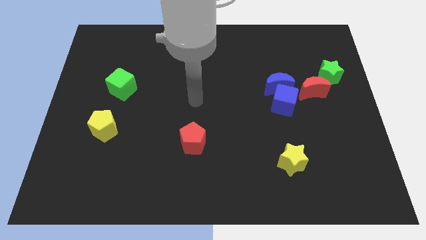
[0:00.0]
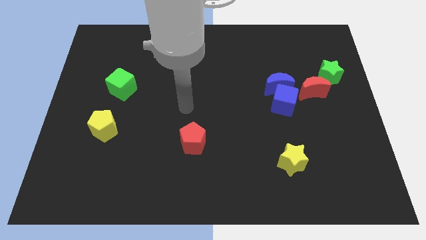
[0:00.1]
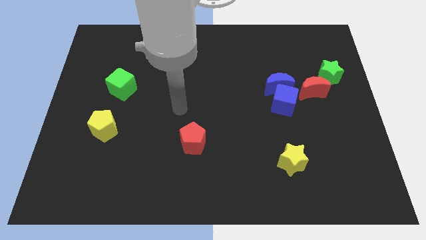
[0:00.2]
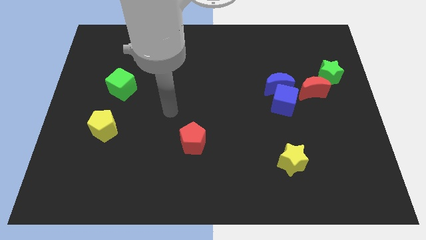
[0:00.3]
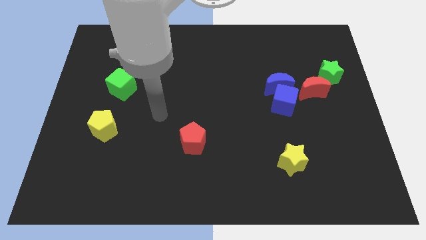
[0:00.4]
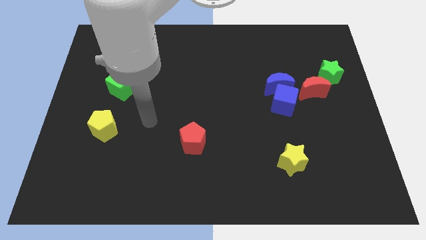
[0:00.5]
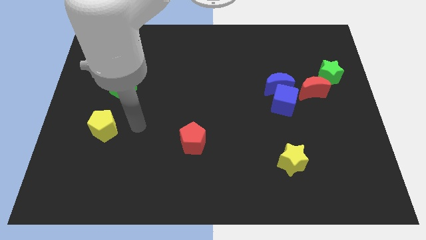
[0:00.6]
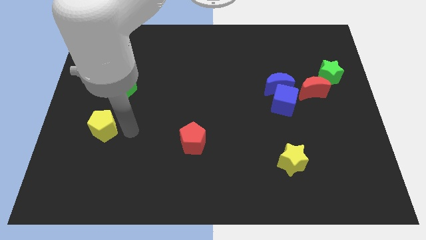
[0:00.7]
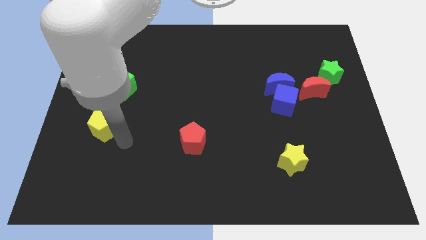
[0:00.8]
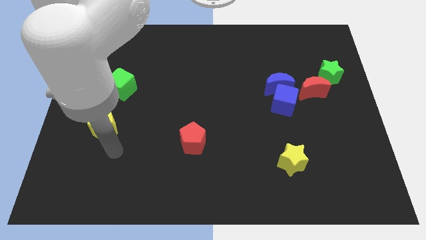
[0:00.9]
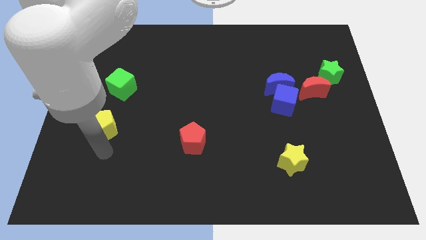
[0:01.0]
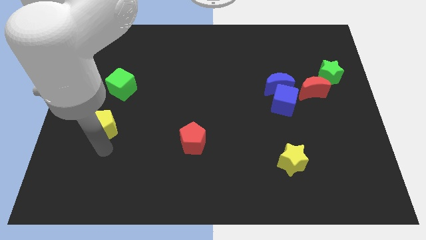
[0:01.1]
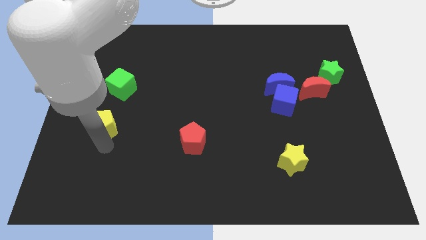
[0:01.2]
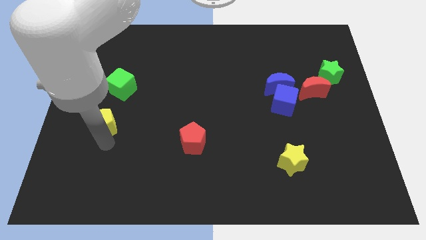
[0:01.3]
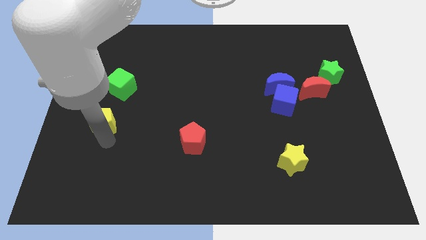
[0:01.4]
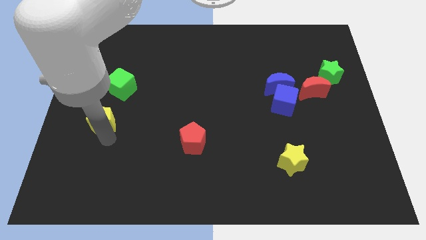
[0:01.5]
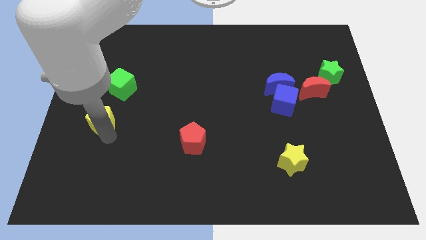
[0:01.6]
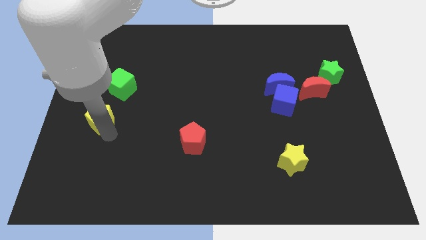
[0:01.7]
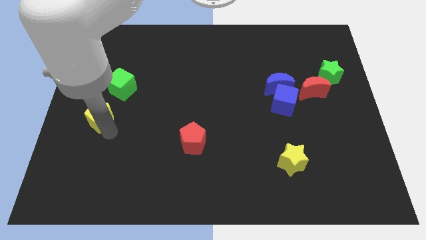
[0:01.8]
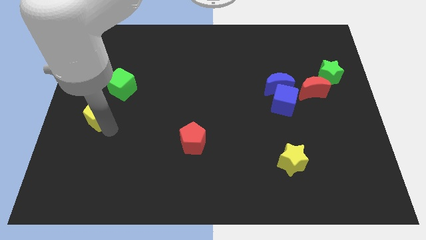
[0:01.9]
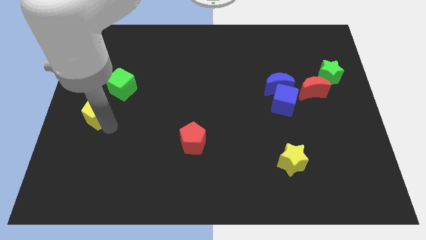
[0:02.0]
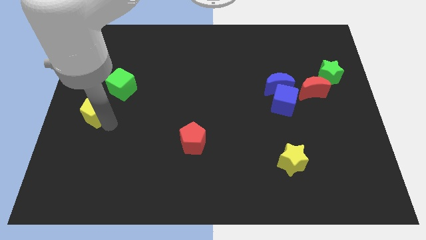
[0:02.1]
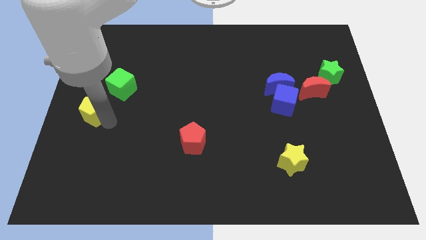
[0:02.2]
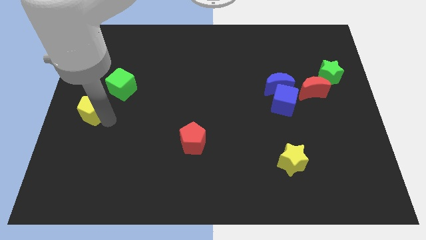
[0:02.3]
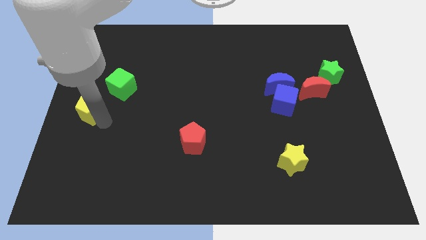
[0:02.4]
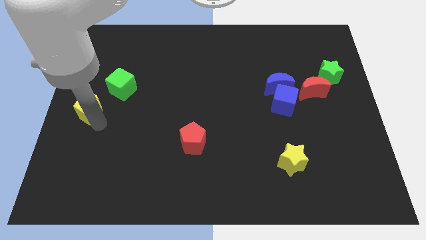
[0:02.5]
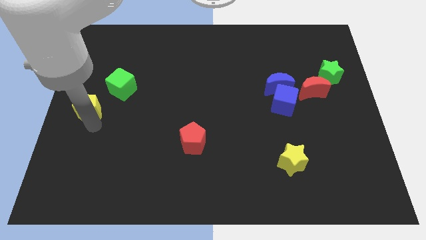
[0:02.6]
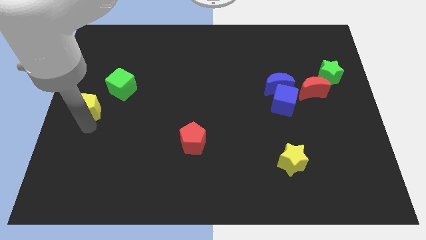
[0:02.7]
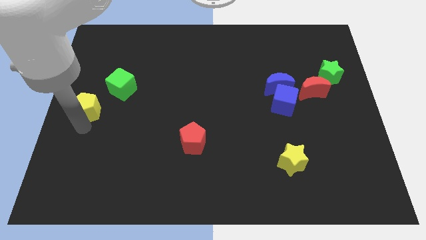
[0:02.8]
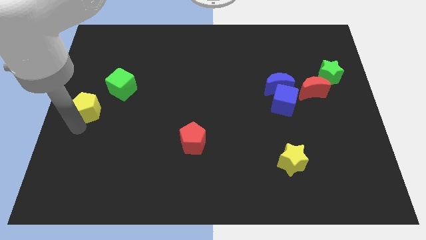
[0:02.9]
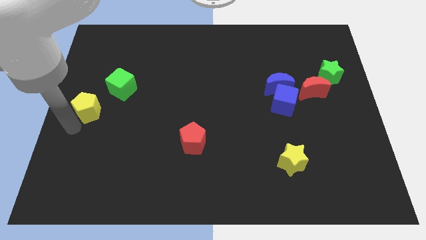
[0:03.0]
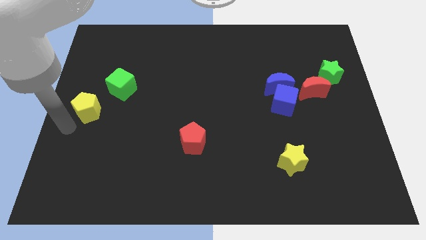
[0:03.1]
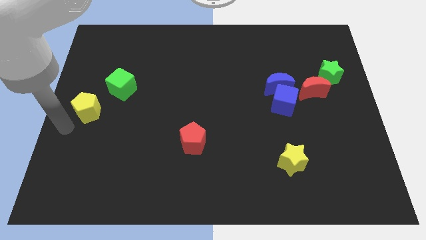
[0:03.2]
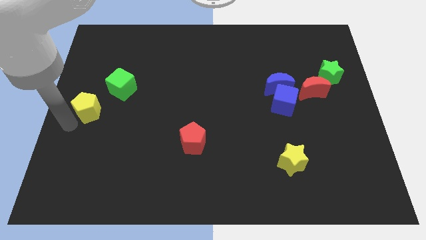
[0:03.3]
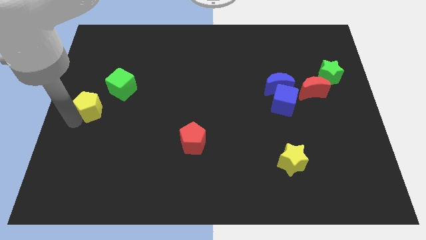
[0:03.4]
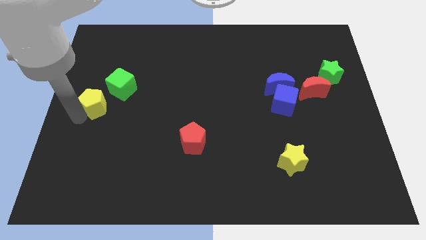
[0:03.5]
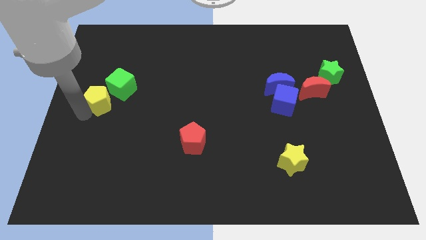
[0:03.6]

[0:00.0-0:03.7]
slightly push the yellow pentagon upwards

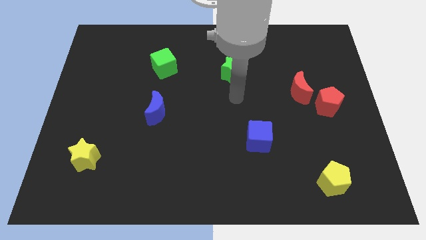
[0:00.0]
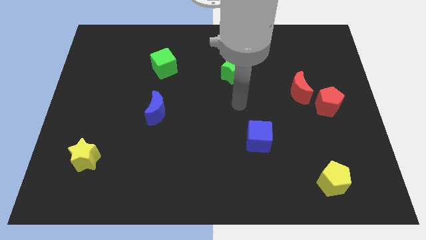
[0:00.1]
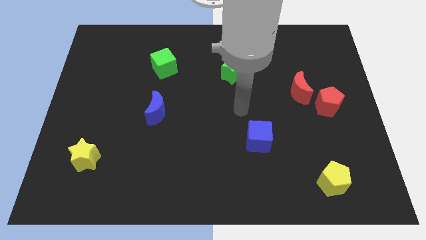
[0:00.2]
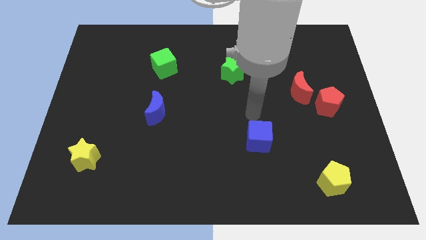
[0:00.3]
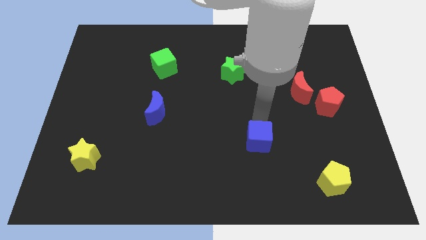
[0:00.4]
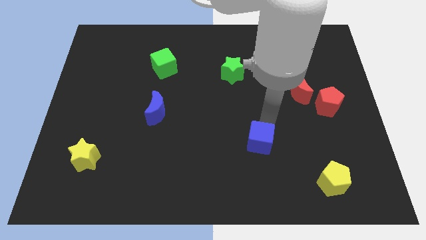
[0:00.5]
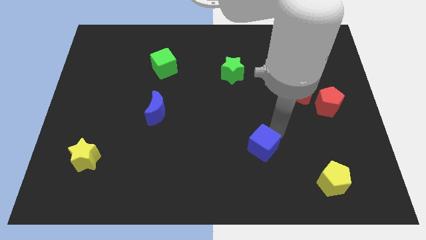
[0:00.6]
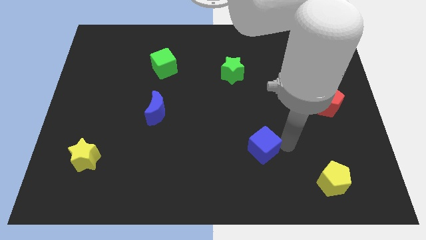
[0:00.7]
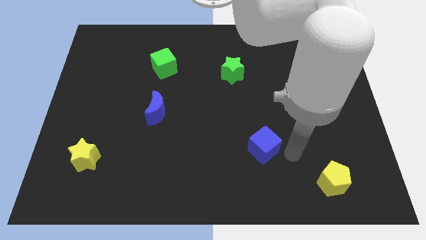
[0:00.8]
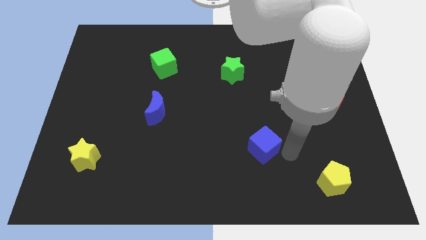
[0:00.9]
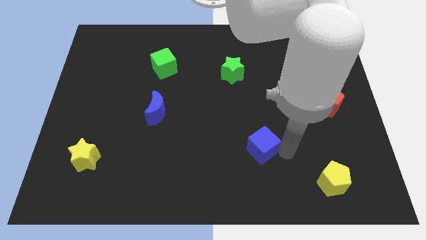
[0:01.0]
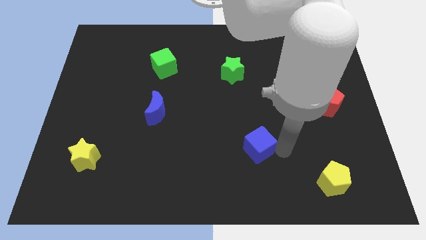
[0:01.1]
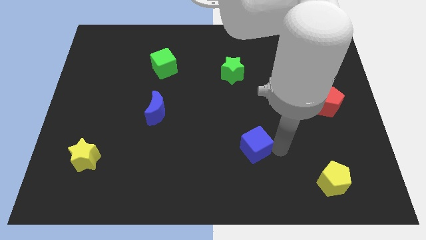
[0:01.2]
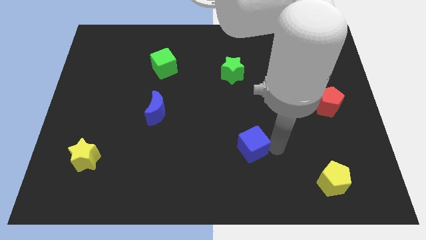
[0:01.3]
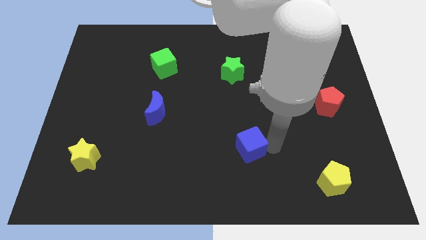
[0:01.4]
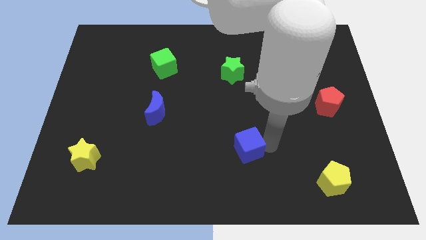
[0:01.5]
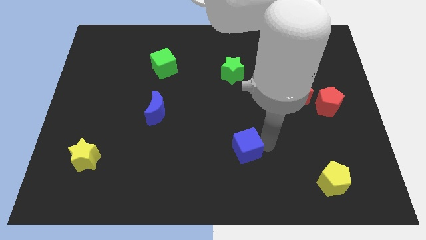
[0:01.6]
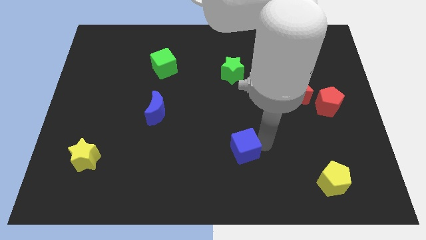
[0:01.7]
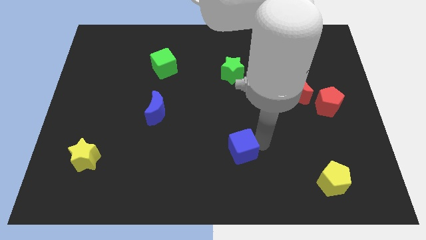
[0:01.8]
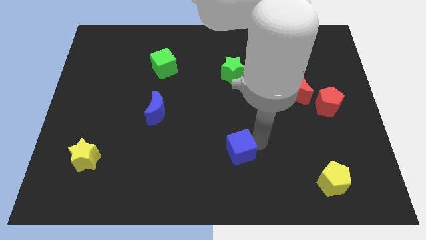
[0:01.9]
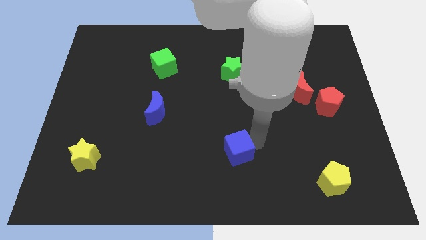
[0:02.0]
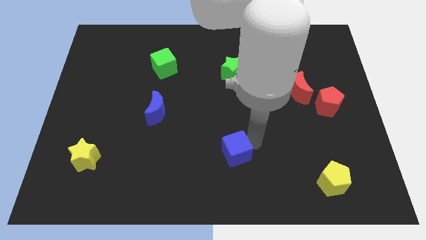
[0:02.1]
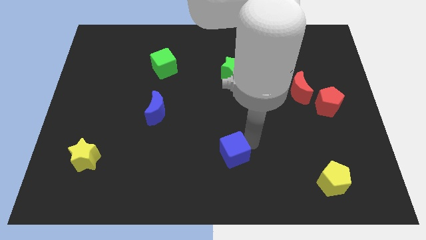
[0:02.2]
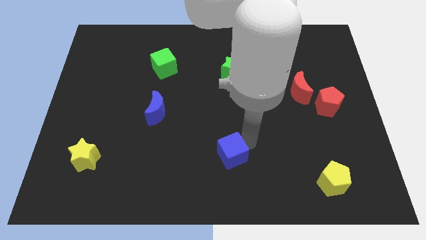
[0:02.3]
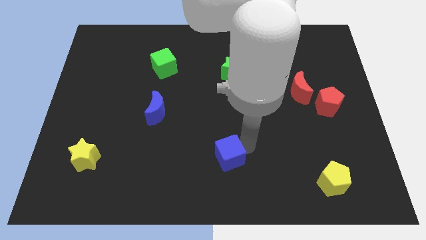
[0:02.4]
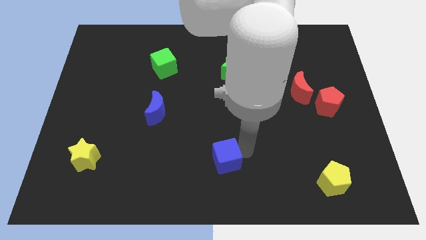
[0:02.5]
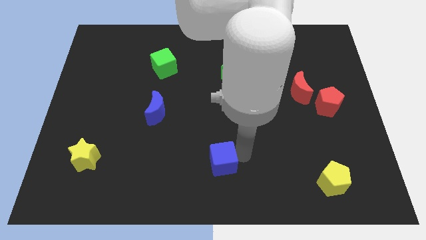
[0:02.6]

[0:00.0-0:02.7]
slightly move the blue cube left

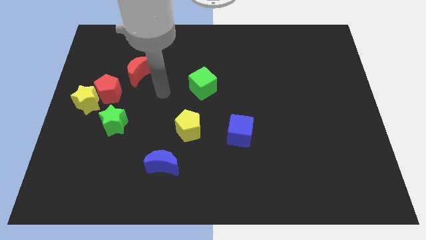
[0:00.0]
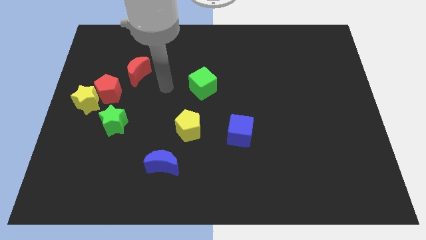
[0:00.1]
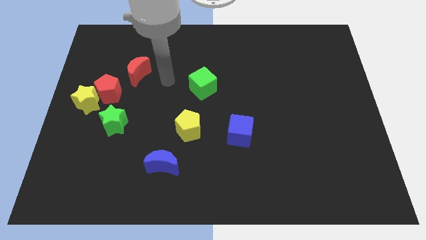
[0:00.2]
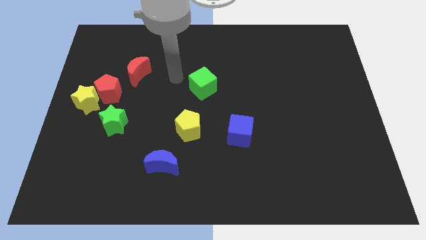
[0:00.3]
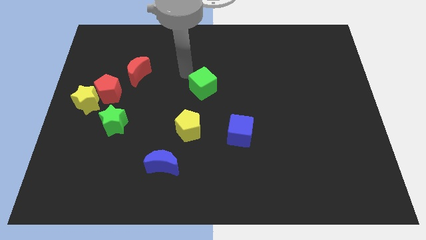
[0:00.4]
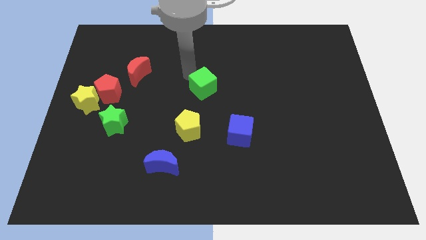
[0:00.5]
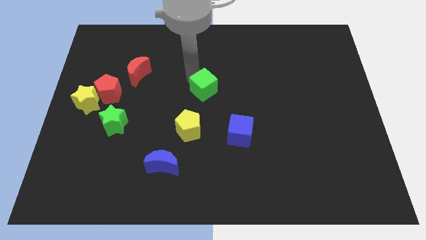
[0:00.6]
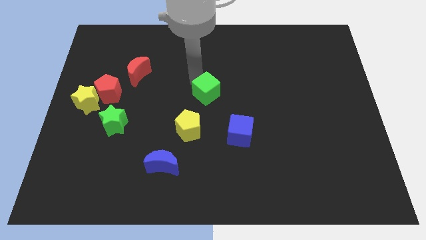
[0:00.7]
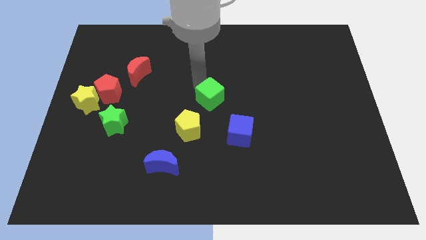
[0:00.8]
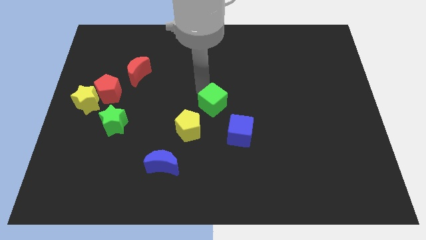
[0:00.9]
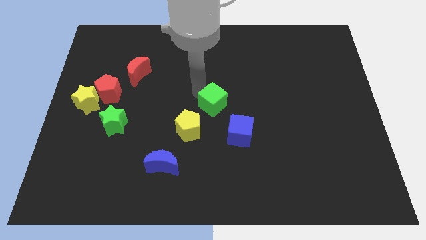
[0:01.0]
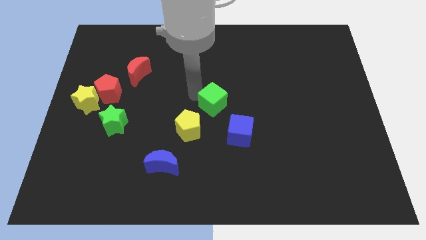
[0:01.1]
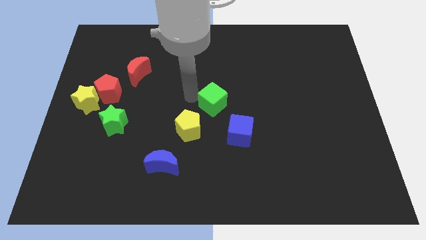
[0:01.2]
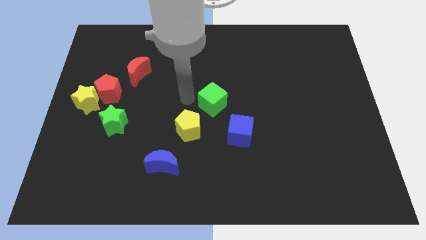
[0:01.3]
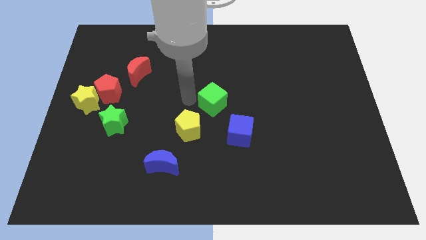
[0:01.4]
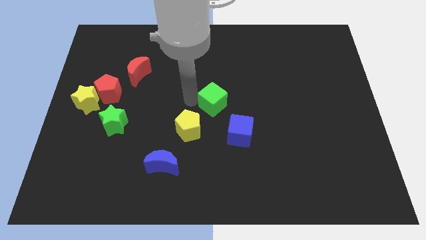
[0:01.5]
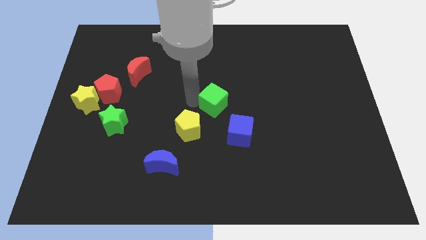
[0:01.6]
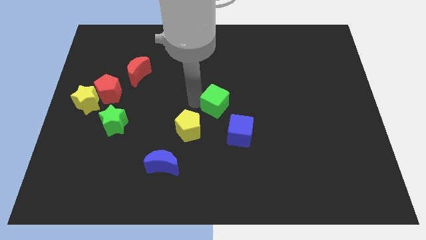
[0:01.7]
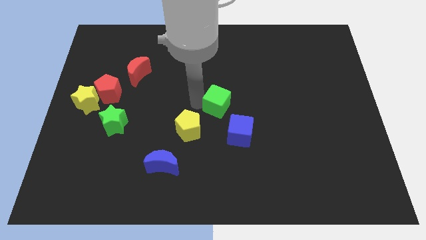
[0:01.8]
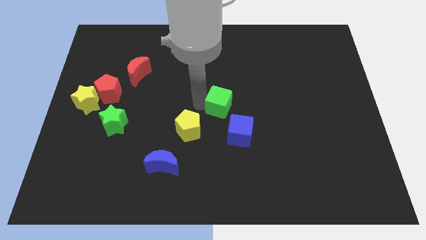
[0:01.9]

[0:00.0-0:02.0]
push the green cube downwards and to the right diagonally a bit
